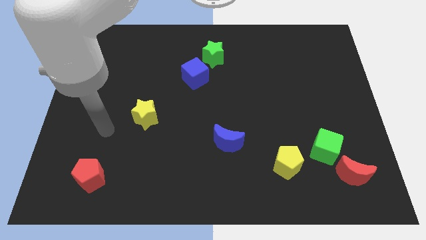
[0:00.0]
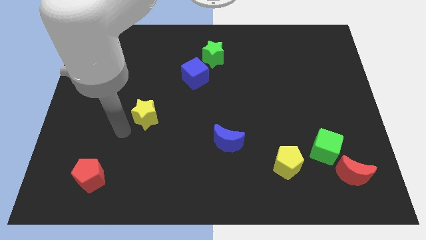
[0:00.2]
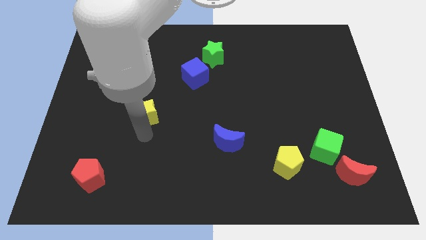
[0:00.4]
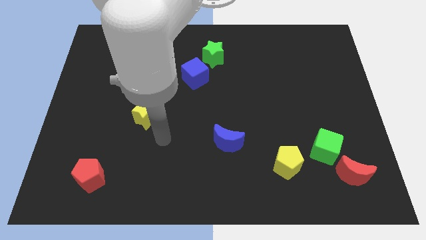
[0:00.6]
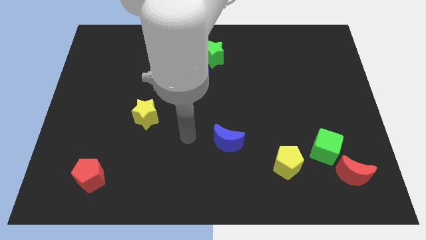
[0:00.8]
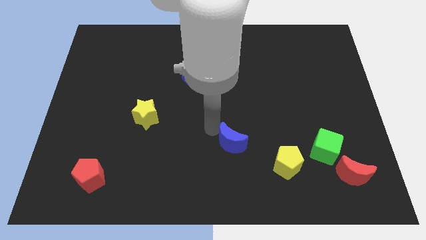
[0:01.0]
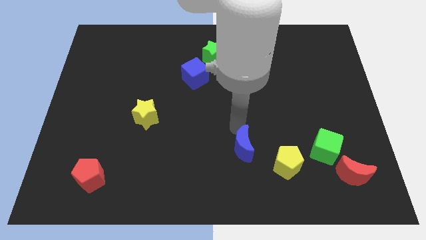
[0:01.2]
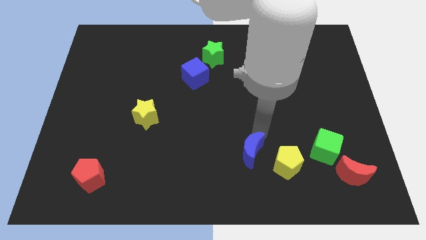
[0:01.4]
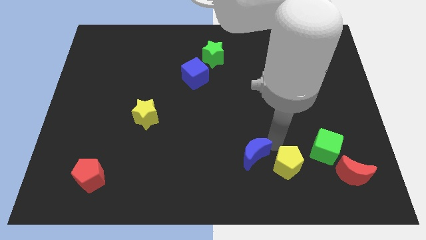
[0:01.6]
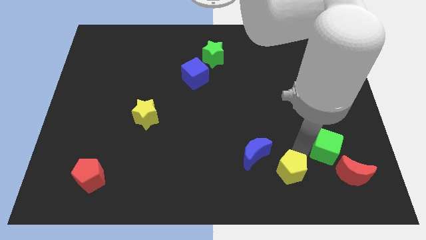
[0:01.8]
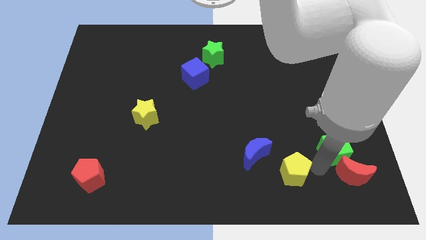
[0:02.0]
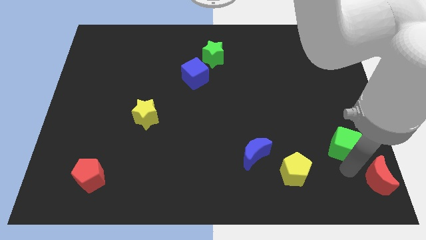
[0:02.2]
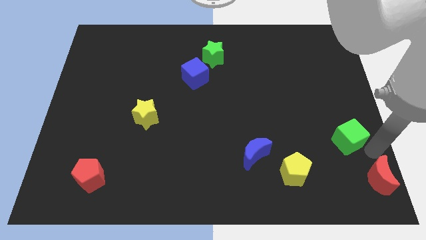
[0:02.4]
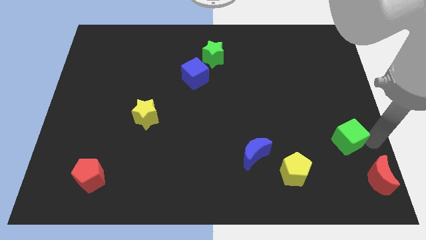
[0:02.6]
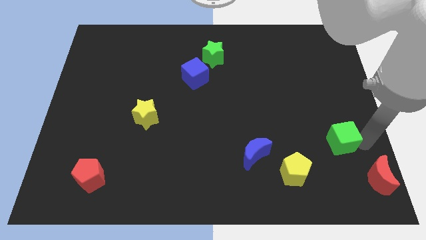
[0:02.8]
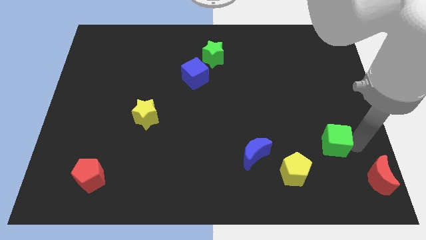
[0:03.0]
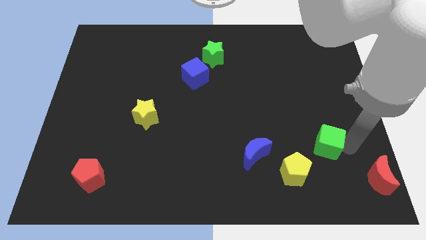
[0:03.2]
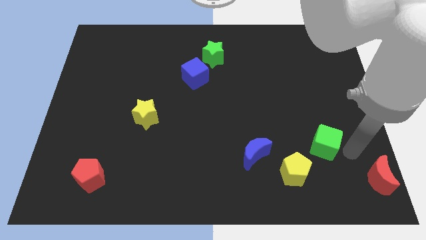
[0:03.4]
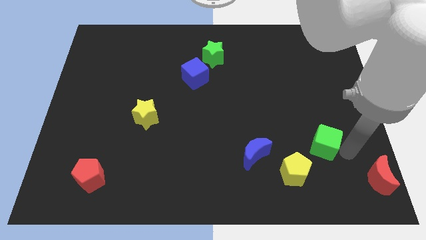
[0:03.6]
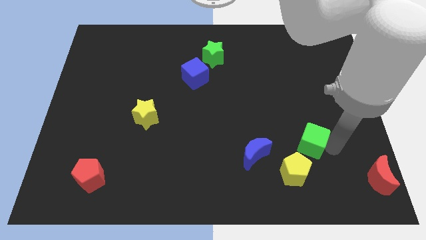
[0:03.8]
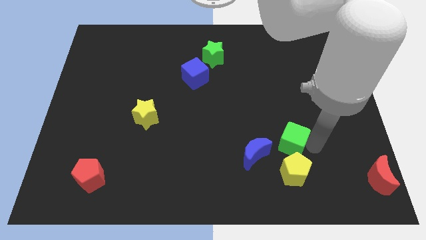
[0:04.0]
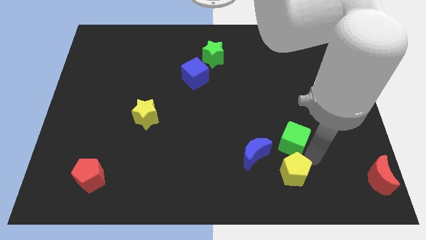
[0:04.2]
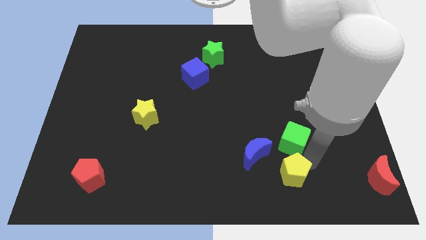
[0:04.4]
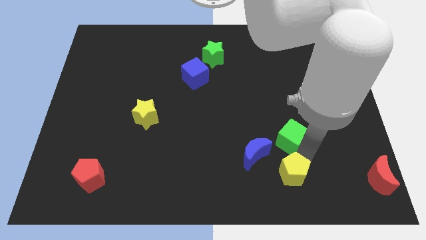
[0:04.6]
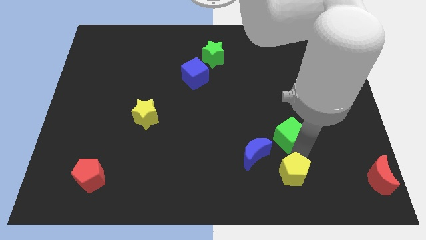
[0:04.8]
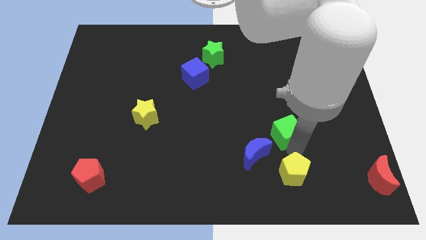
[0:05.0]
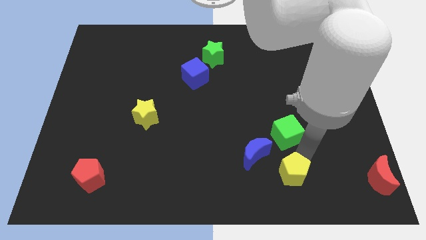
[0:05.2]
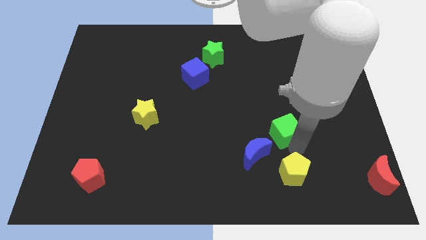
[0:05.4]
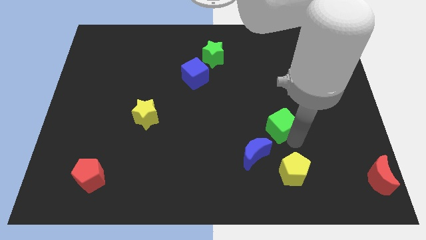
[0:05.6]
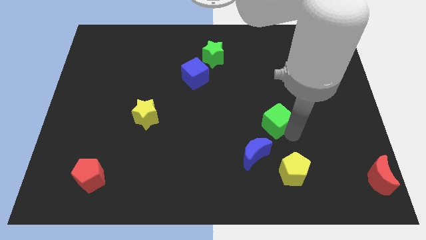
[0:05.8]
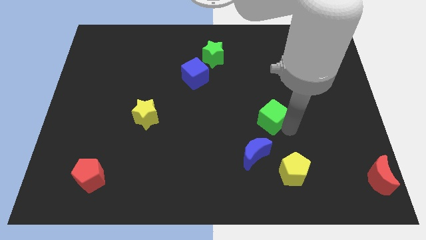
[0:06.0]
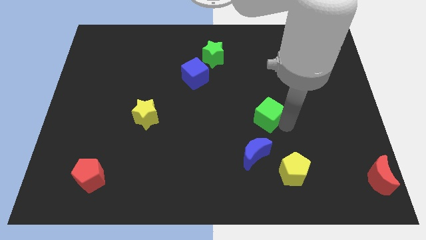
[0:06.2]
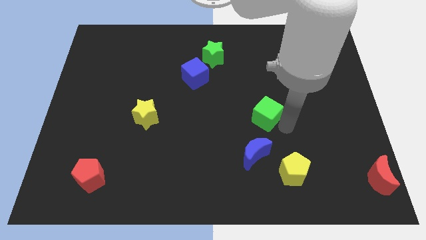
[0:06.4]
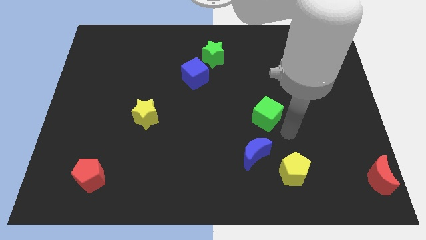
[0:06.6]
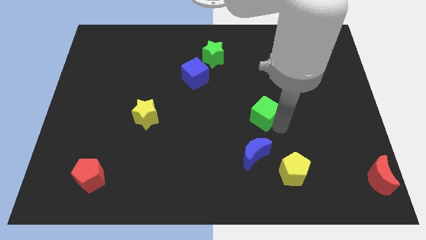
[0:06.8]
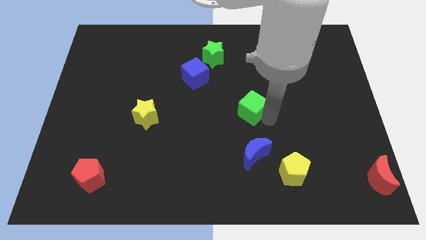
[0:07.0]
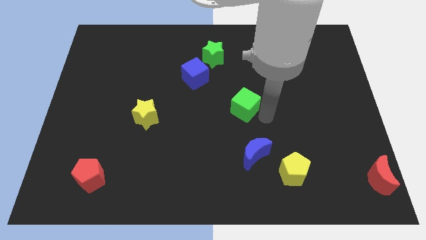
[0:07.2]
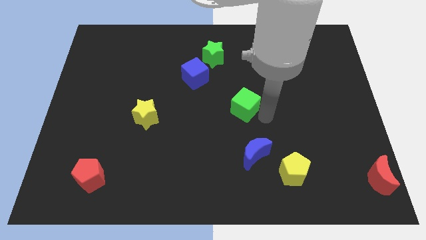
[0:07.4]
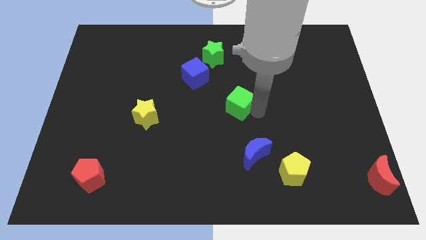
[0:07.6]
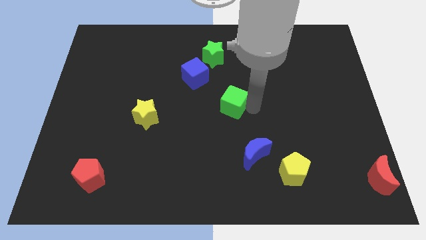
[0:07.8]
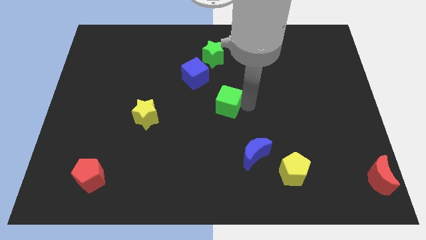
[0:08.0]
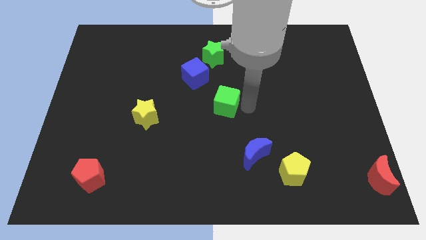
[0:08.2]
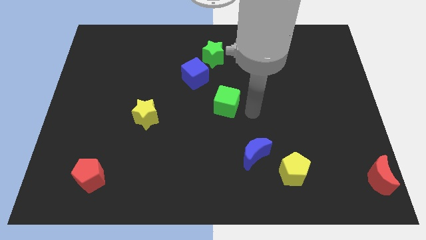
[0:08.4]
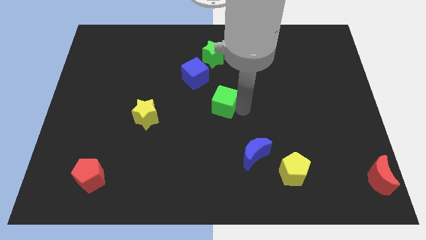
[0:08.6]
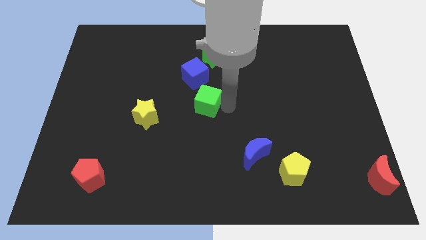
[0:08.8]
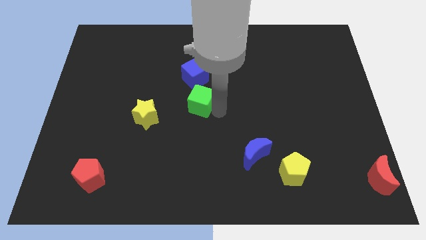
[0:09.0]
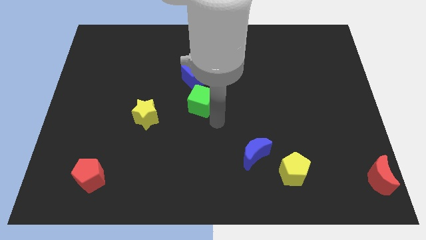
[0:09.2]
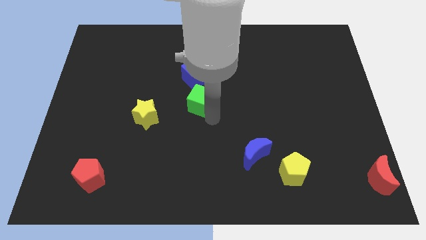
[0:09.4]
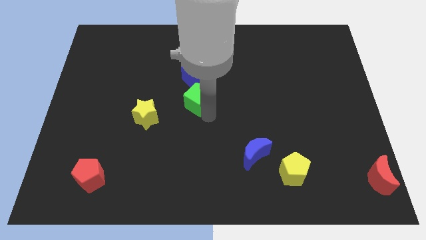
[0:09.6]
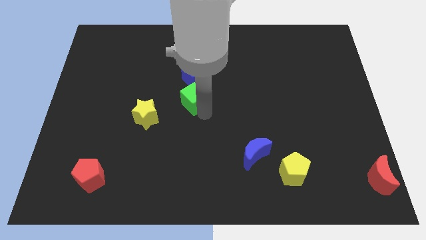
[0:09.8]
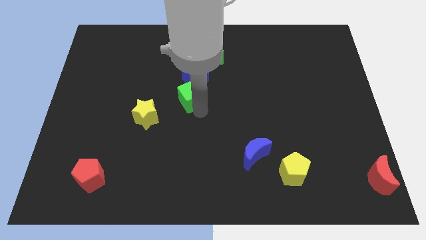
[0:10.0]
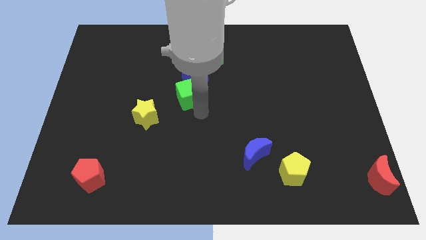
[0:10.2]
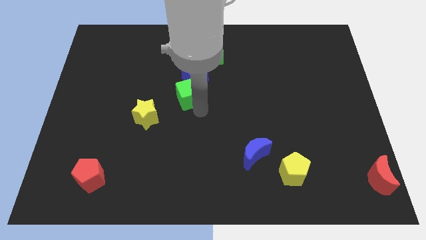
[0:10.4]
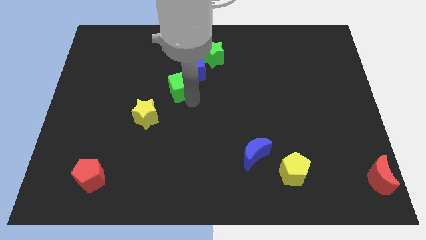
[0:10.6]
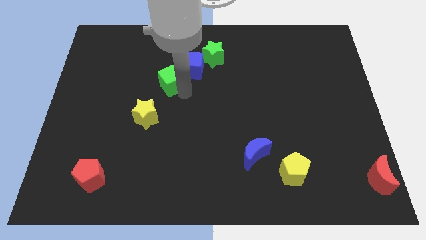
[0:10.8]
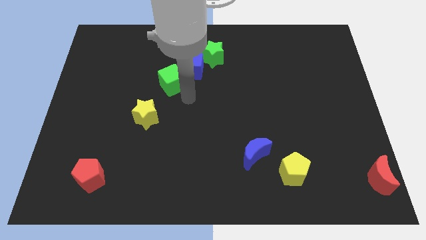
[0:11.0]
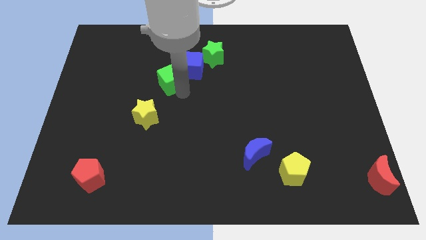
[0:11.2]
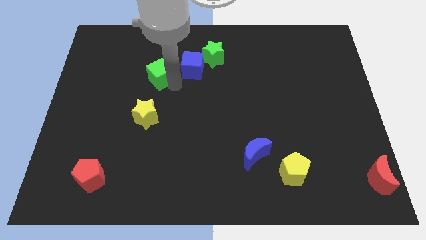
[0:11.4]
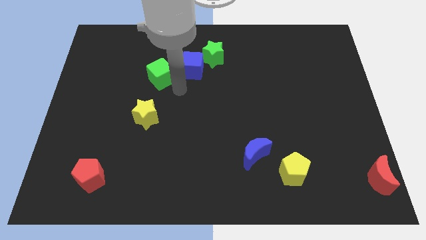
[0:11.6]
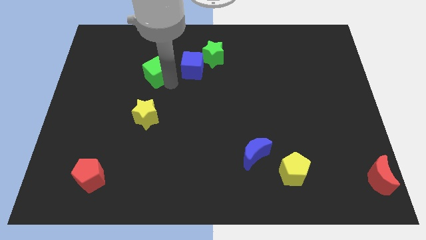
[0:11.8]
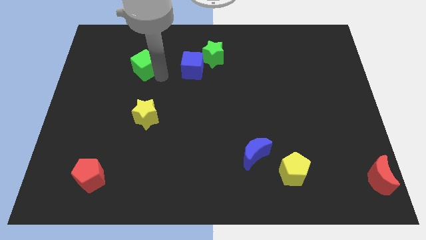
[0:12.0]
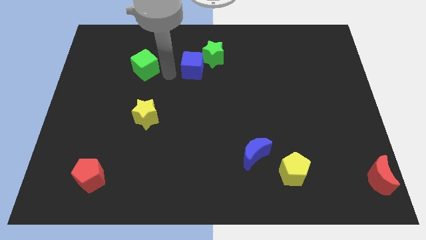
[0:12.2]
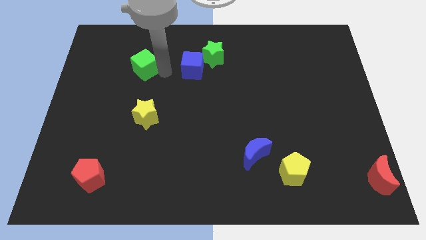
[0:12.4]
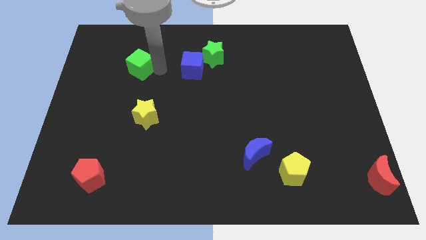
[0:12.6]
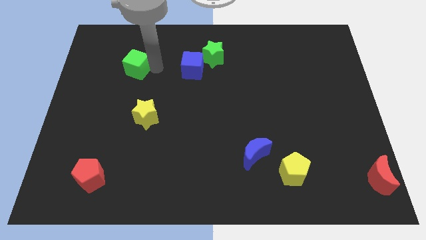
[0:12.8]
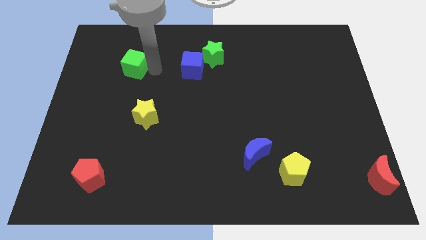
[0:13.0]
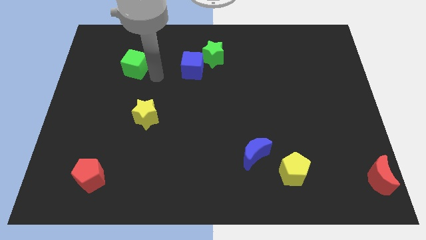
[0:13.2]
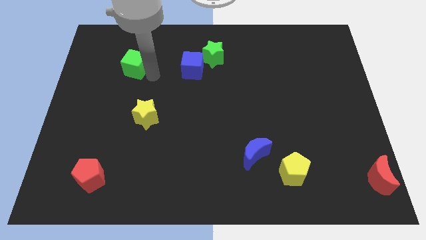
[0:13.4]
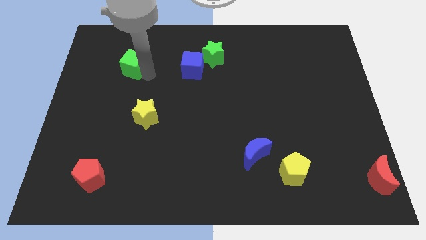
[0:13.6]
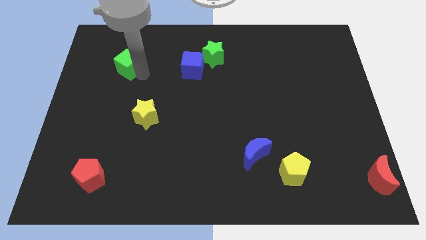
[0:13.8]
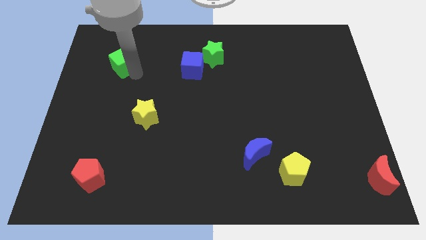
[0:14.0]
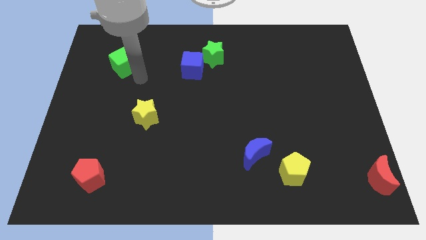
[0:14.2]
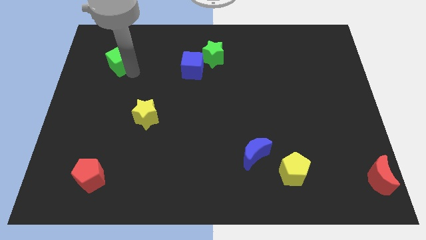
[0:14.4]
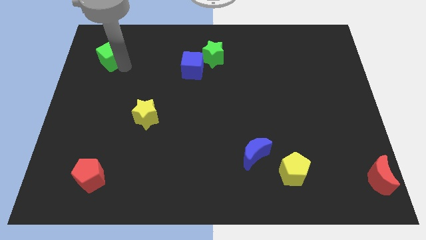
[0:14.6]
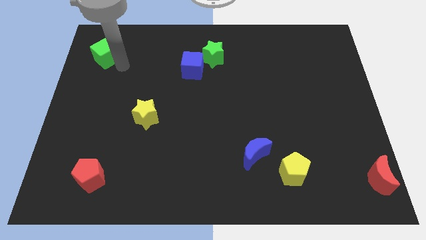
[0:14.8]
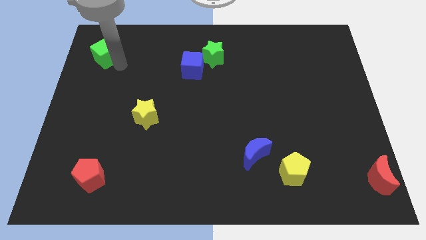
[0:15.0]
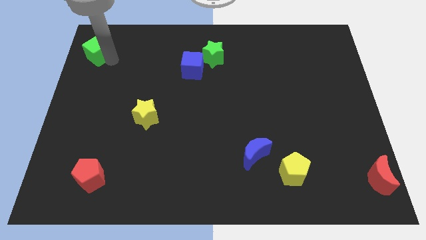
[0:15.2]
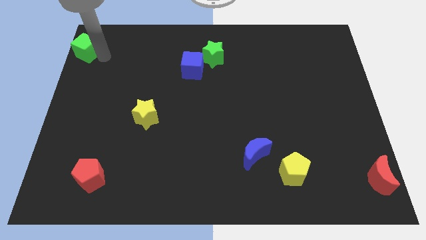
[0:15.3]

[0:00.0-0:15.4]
move the green cube to the top left of the board
